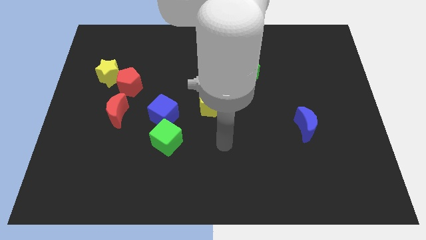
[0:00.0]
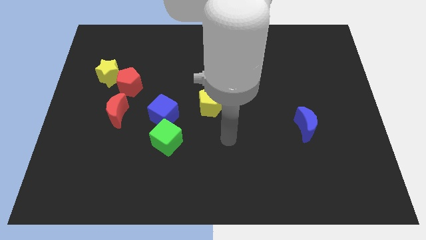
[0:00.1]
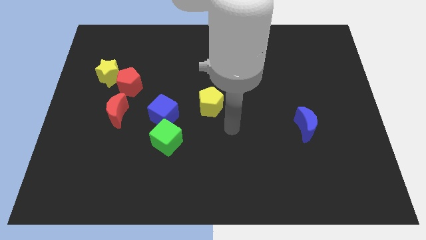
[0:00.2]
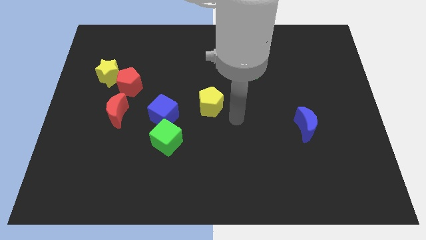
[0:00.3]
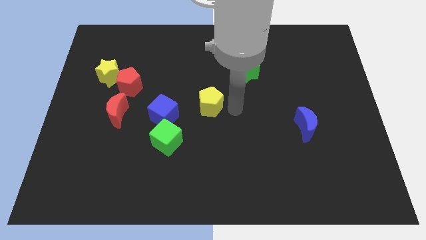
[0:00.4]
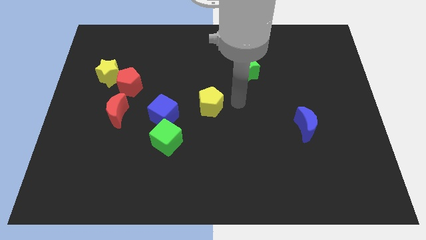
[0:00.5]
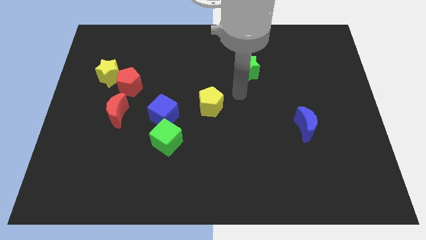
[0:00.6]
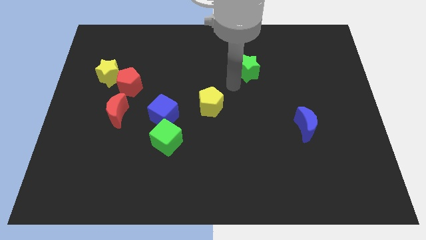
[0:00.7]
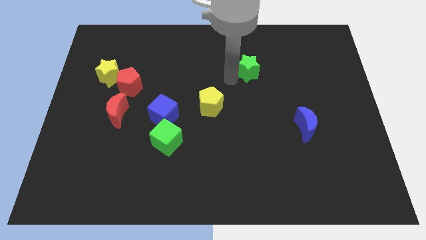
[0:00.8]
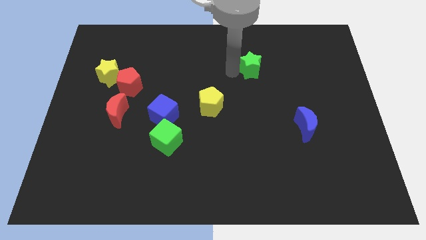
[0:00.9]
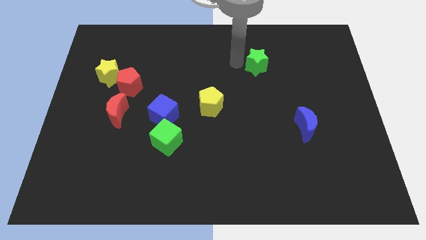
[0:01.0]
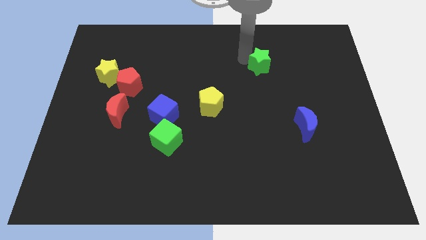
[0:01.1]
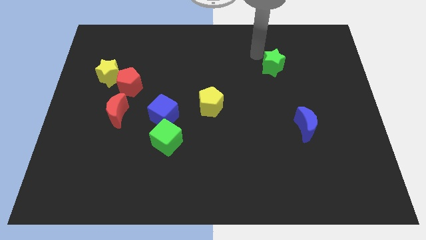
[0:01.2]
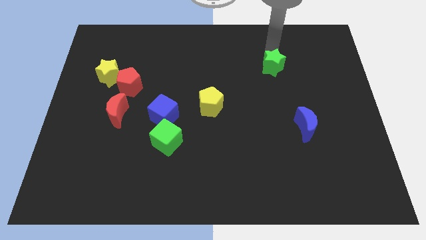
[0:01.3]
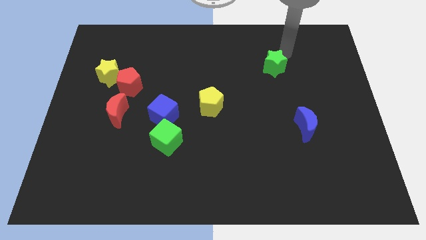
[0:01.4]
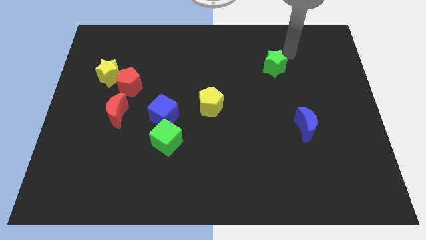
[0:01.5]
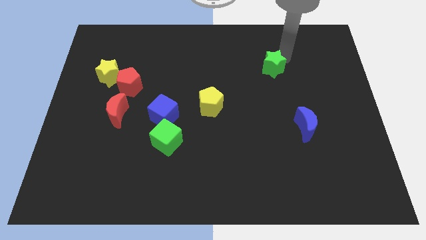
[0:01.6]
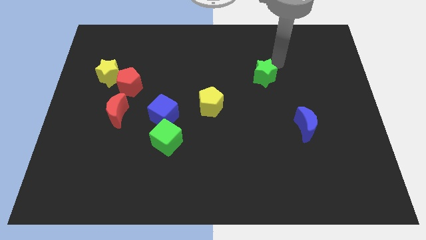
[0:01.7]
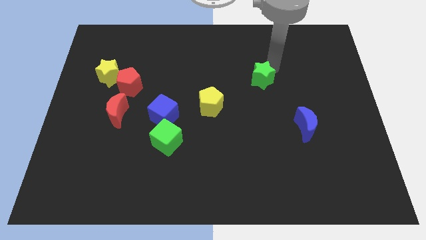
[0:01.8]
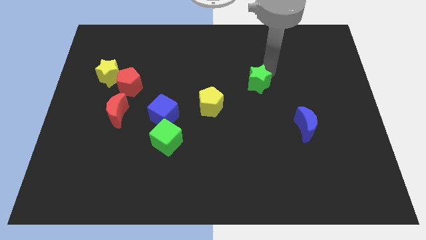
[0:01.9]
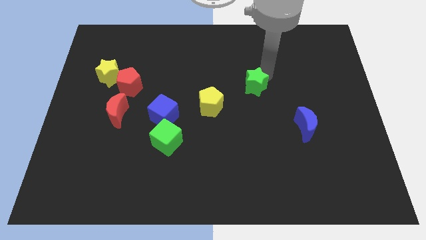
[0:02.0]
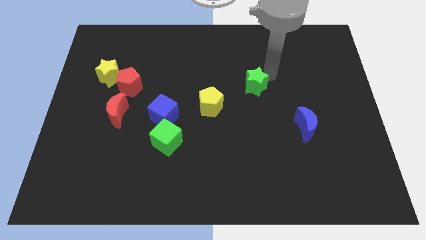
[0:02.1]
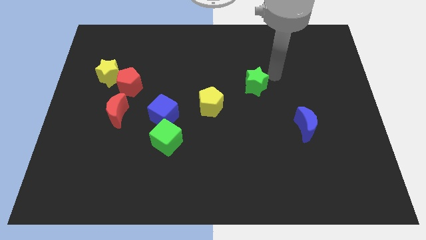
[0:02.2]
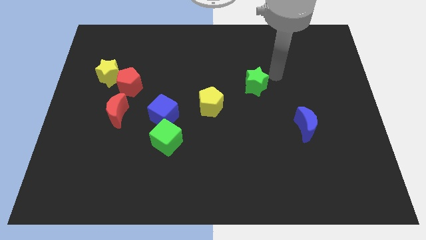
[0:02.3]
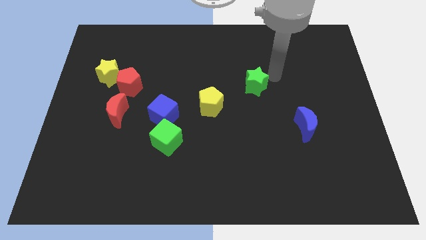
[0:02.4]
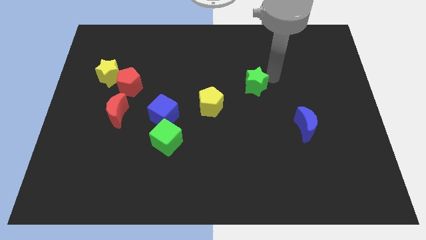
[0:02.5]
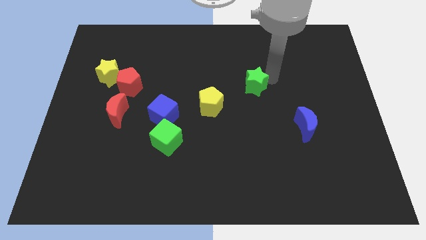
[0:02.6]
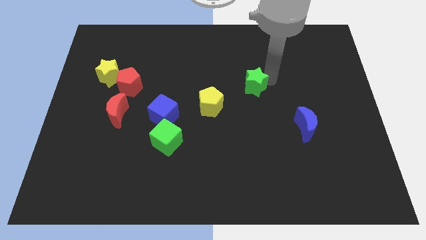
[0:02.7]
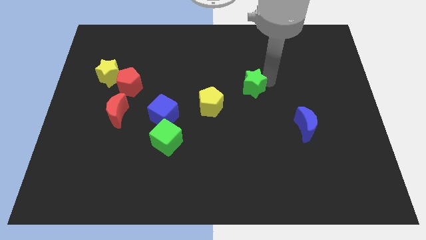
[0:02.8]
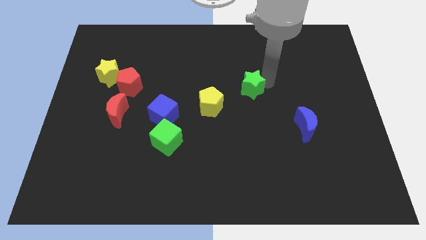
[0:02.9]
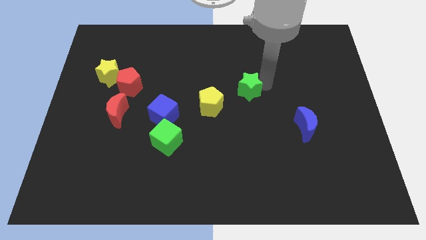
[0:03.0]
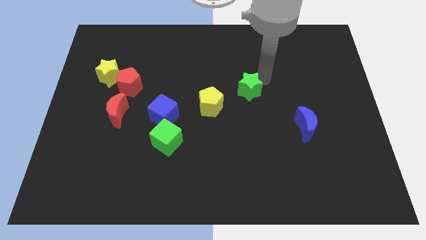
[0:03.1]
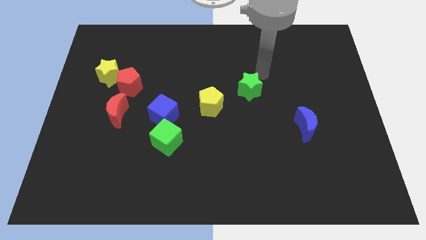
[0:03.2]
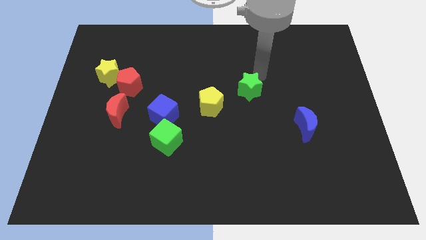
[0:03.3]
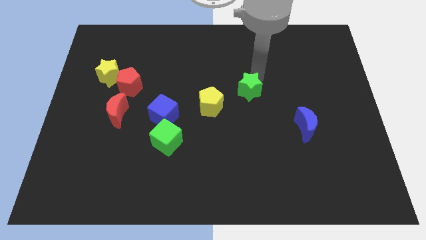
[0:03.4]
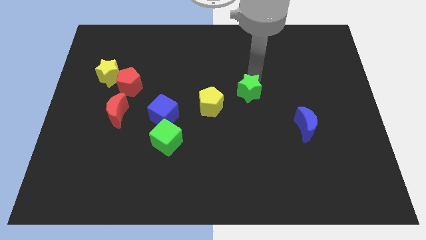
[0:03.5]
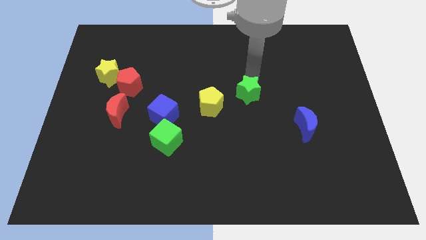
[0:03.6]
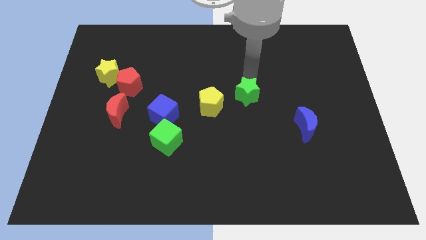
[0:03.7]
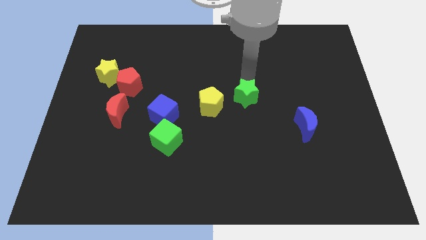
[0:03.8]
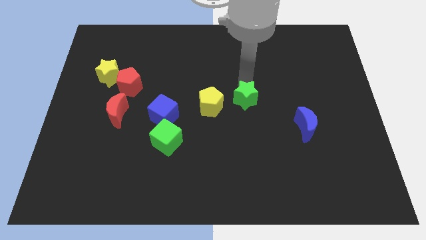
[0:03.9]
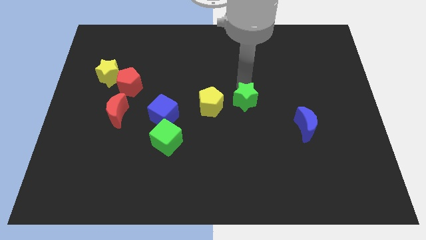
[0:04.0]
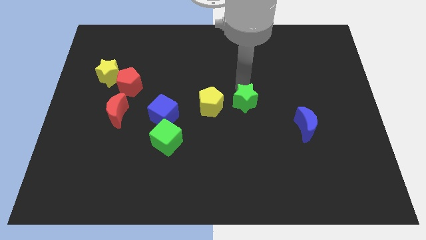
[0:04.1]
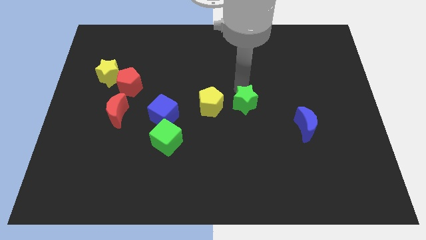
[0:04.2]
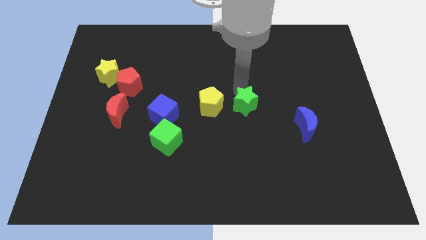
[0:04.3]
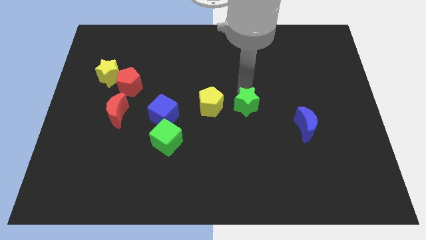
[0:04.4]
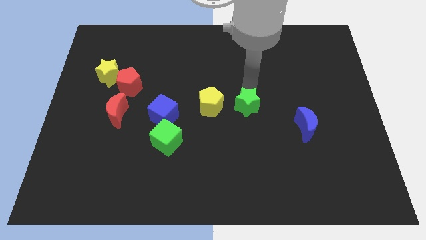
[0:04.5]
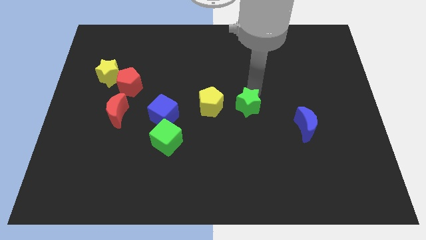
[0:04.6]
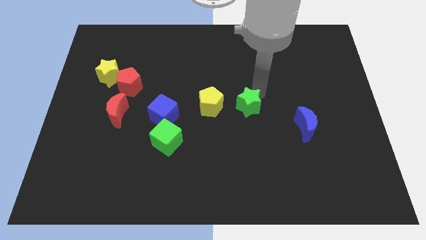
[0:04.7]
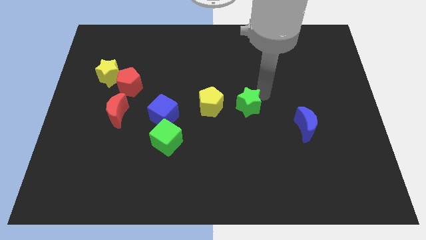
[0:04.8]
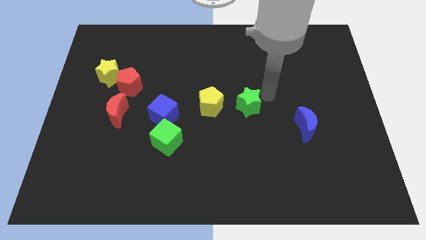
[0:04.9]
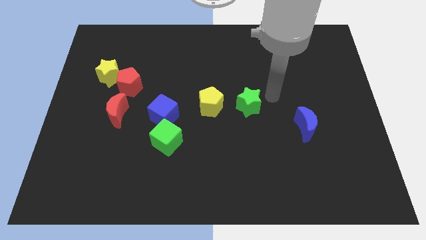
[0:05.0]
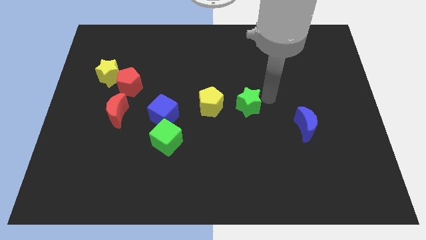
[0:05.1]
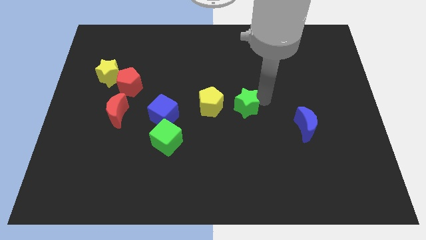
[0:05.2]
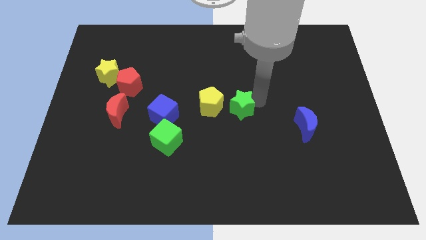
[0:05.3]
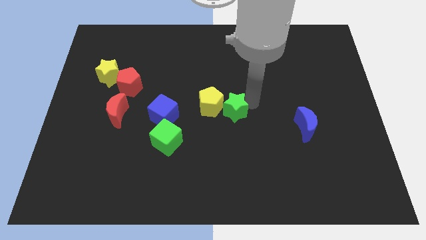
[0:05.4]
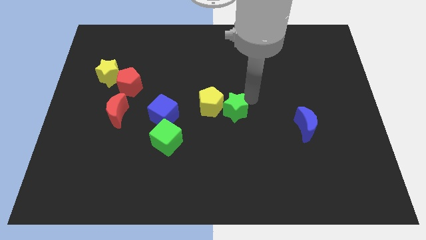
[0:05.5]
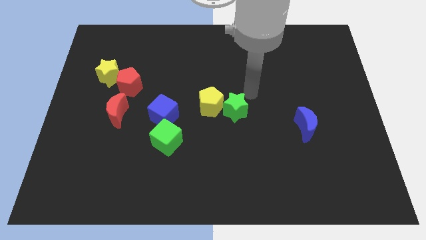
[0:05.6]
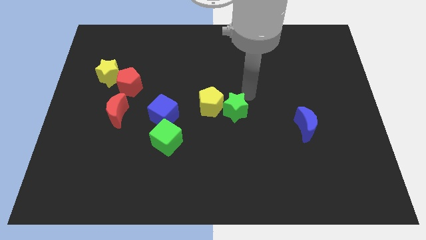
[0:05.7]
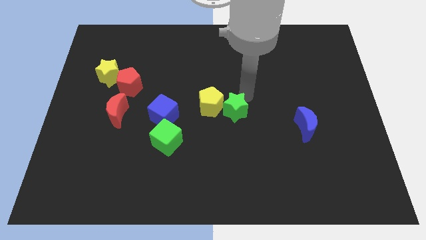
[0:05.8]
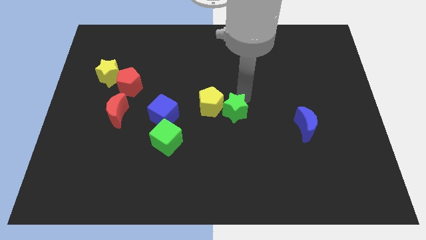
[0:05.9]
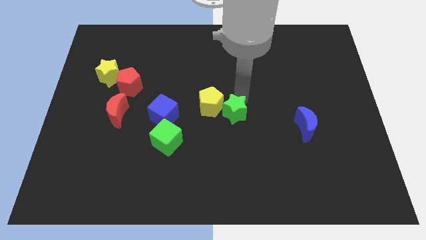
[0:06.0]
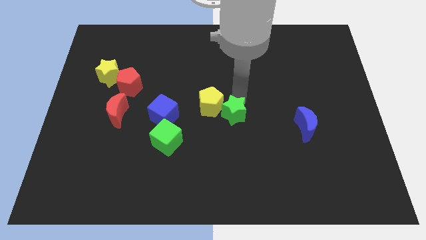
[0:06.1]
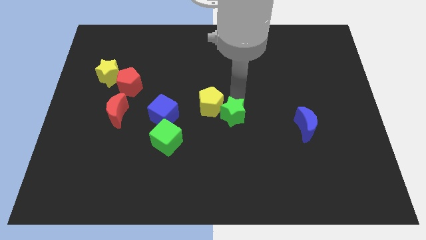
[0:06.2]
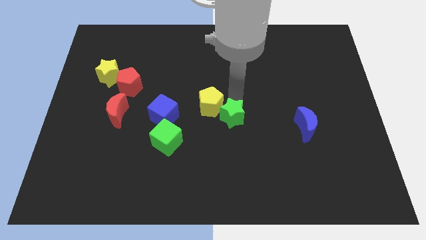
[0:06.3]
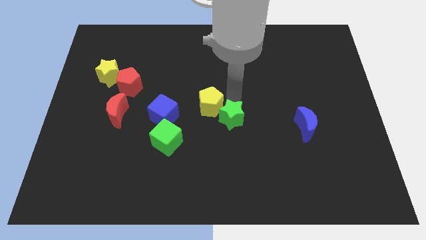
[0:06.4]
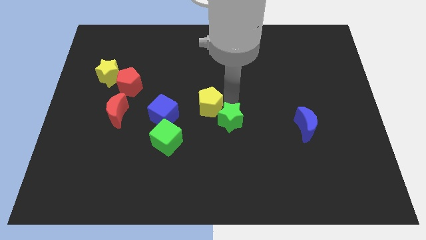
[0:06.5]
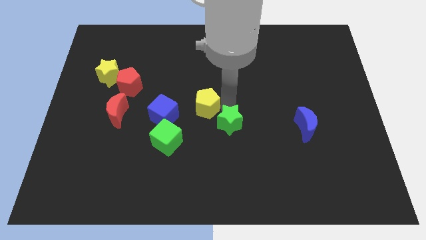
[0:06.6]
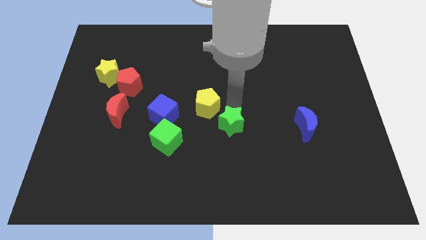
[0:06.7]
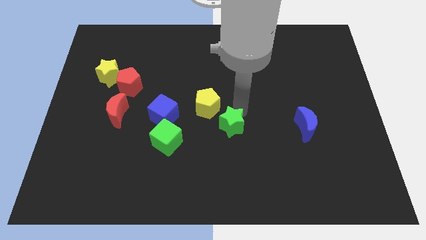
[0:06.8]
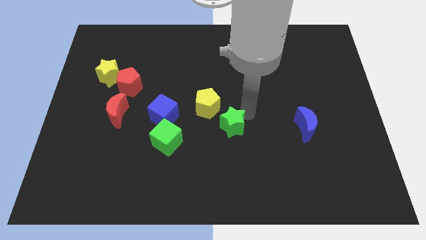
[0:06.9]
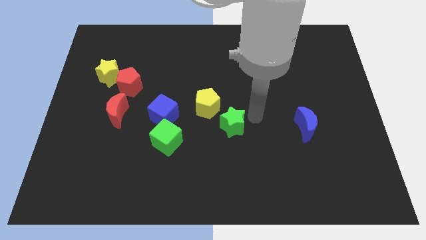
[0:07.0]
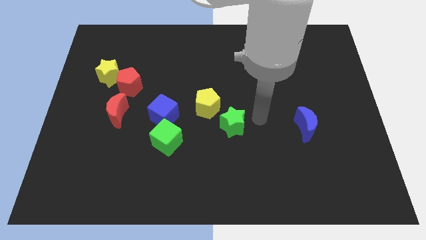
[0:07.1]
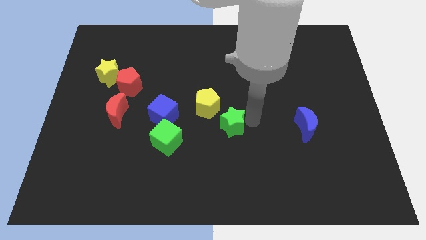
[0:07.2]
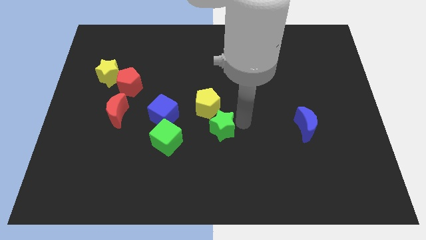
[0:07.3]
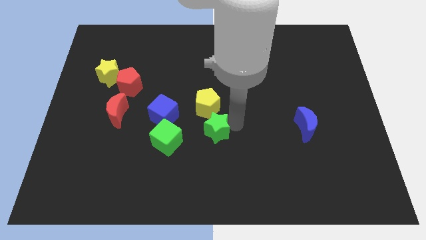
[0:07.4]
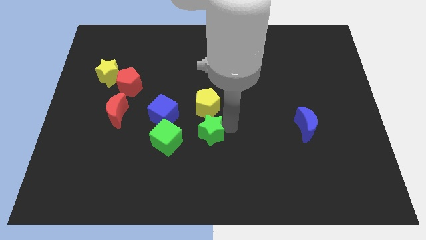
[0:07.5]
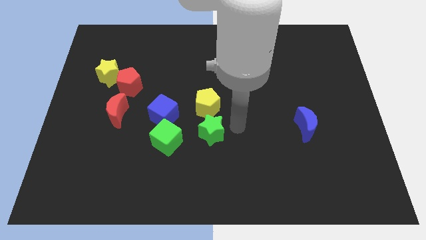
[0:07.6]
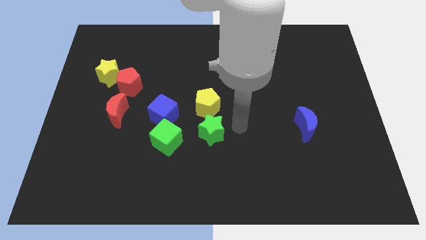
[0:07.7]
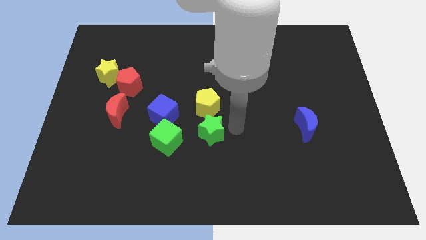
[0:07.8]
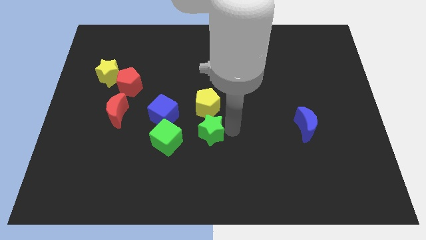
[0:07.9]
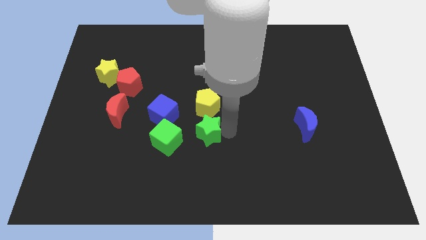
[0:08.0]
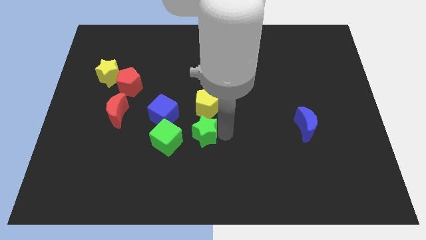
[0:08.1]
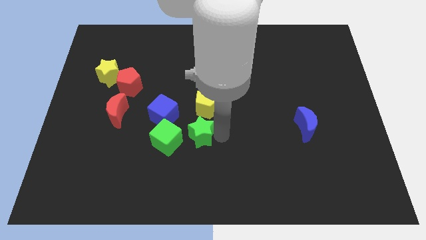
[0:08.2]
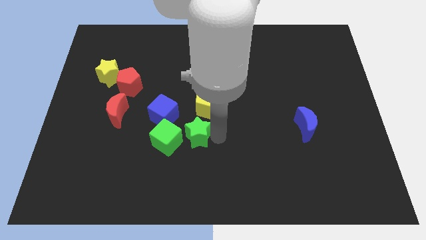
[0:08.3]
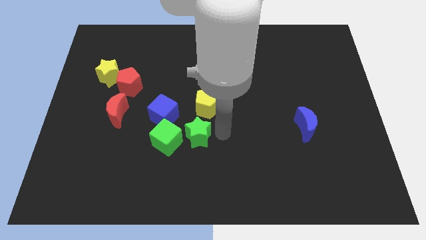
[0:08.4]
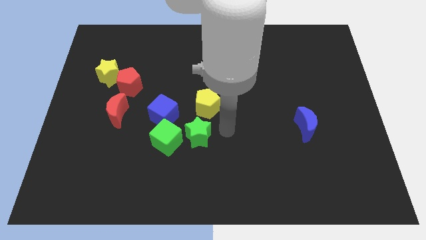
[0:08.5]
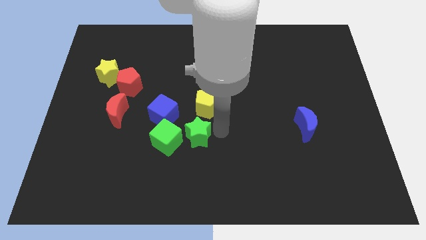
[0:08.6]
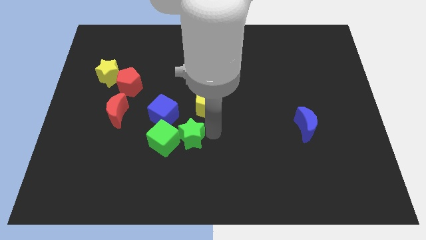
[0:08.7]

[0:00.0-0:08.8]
put the green star close to the green cube
